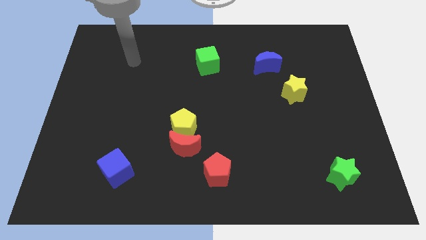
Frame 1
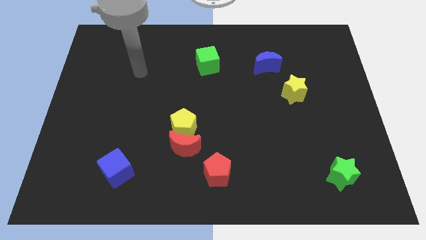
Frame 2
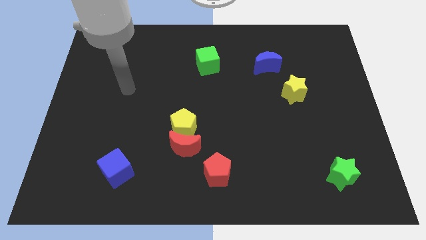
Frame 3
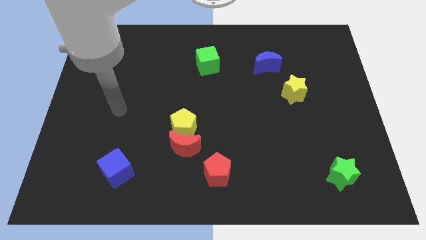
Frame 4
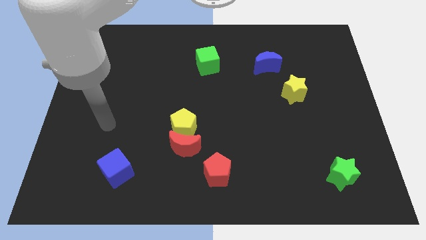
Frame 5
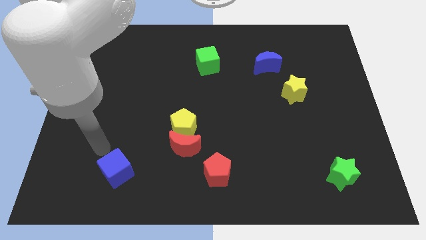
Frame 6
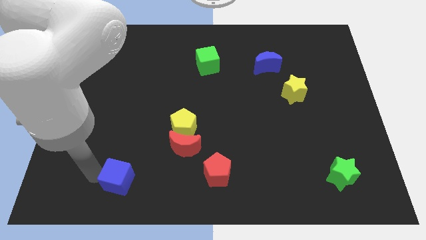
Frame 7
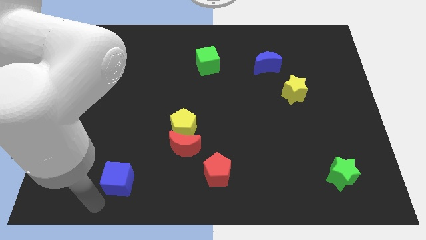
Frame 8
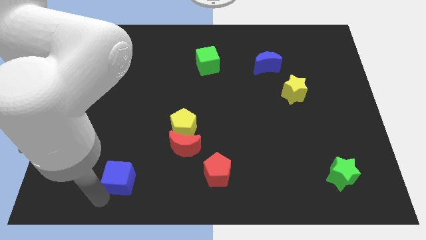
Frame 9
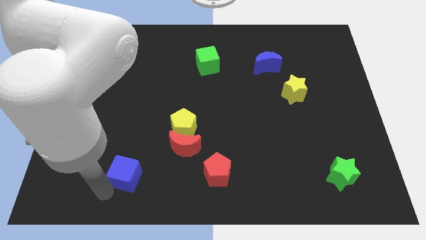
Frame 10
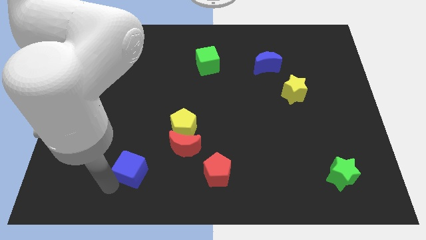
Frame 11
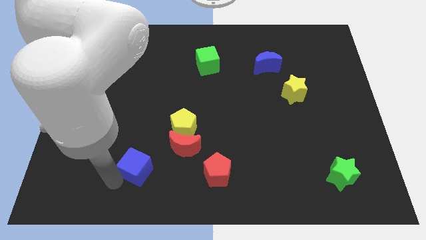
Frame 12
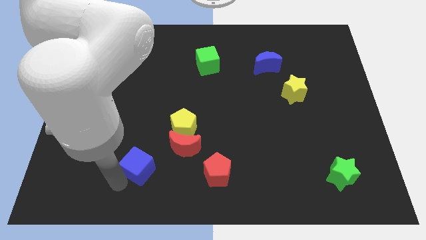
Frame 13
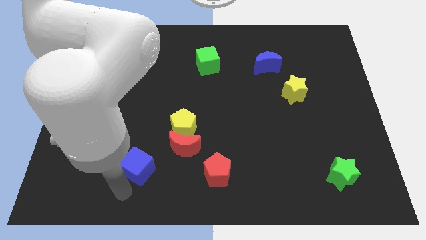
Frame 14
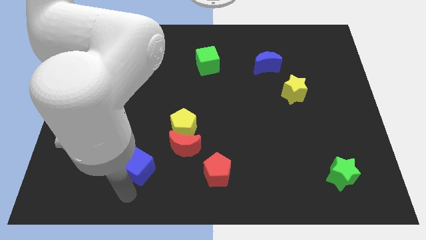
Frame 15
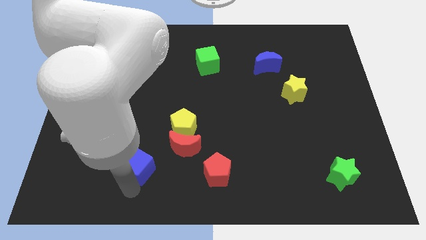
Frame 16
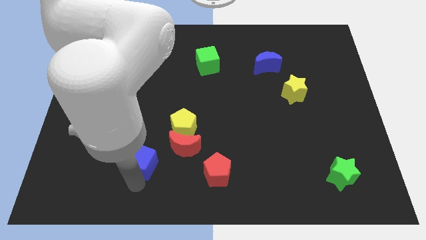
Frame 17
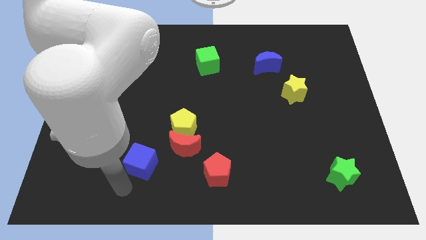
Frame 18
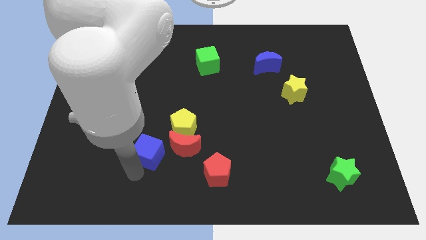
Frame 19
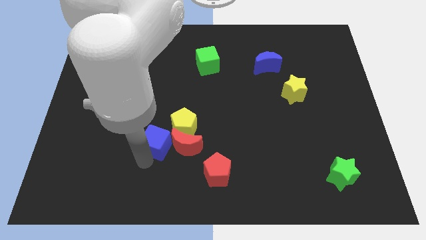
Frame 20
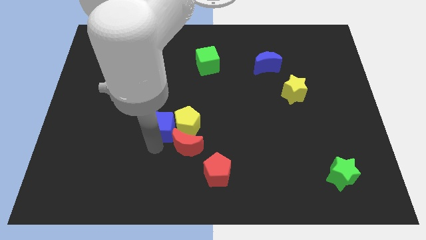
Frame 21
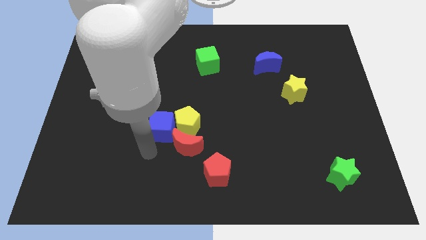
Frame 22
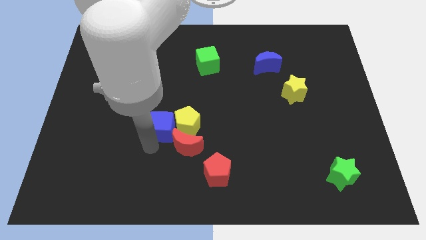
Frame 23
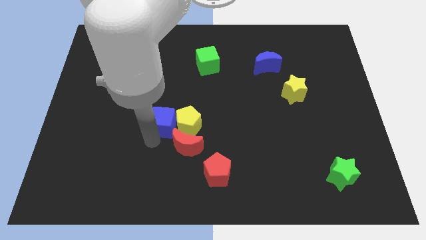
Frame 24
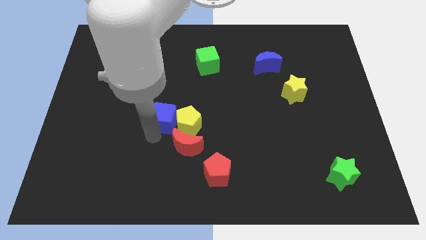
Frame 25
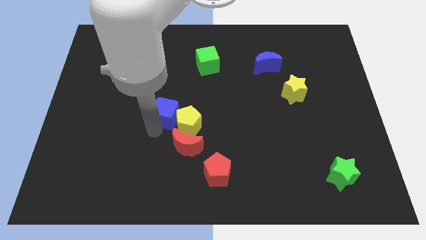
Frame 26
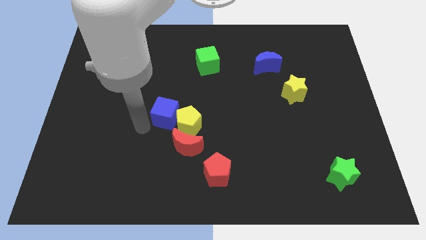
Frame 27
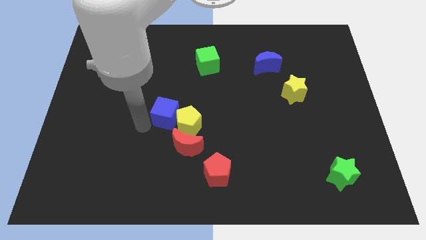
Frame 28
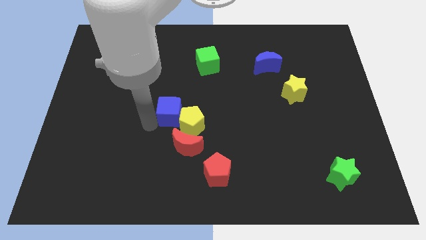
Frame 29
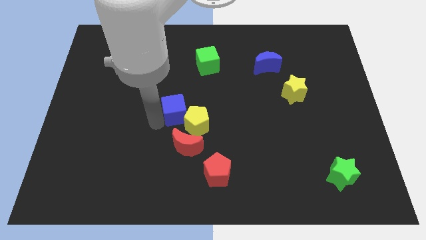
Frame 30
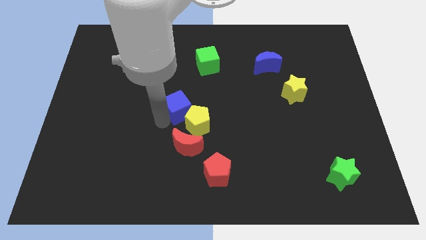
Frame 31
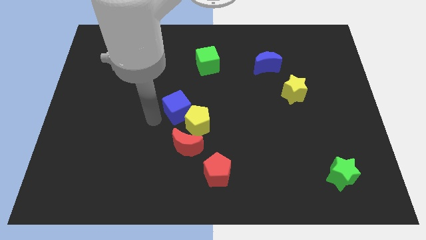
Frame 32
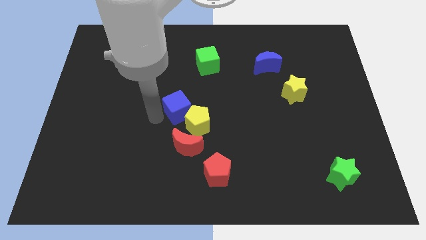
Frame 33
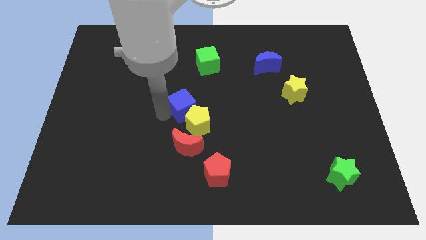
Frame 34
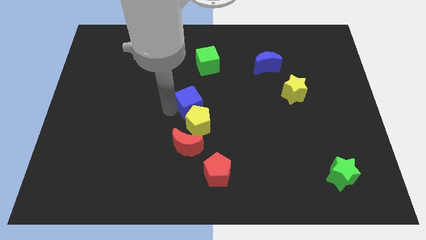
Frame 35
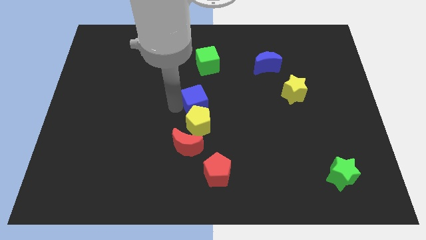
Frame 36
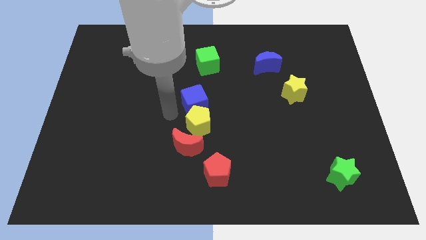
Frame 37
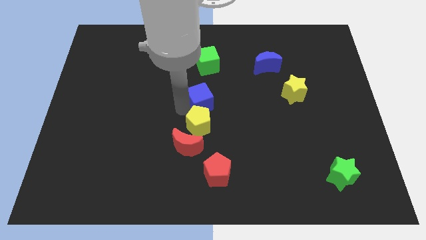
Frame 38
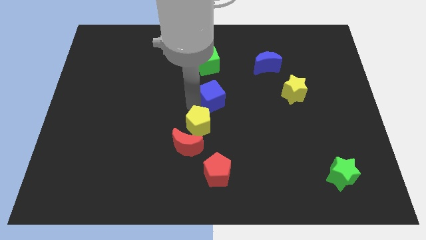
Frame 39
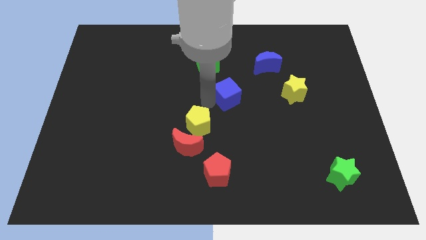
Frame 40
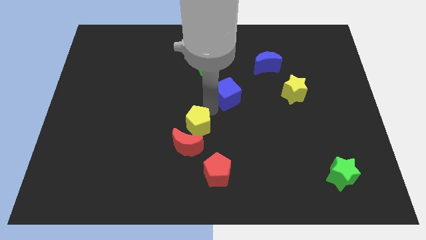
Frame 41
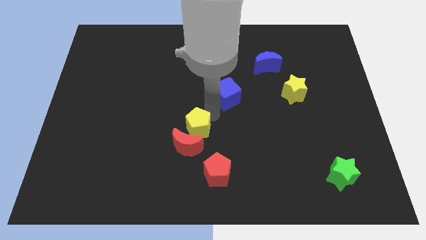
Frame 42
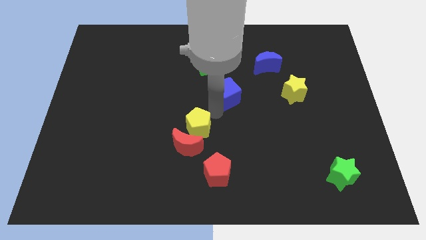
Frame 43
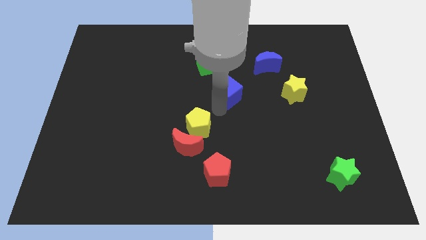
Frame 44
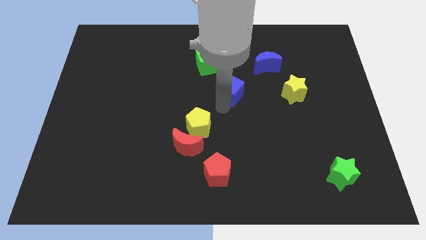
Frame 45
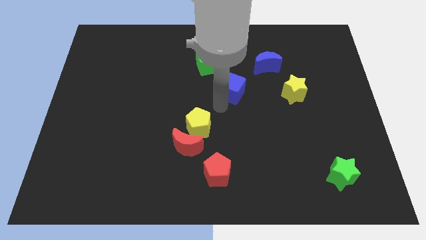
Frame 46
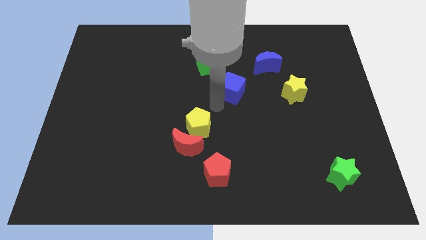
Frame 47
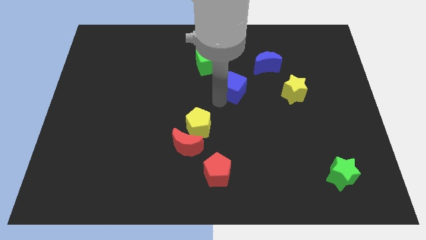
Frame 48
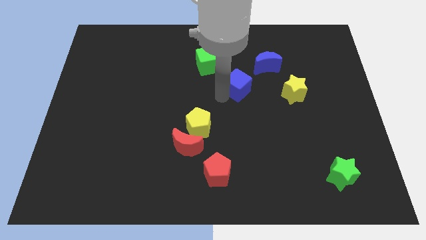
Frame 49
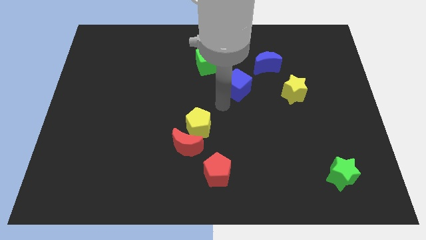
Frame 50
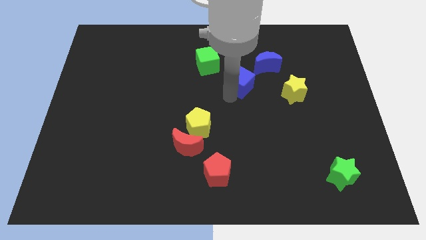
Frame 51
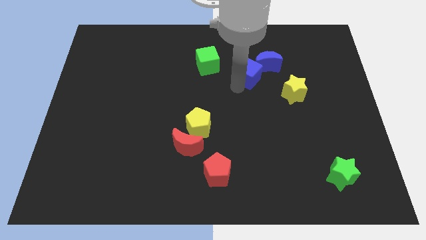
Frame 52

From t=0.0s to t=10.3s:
push the blue cube next to the blue moon

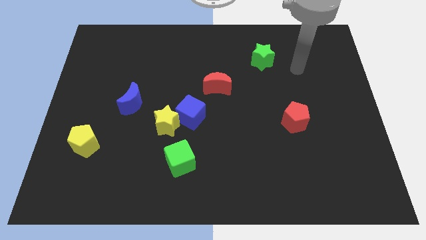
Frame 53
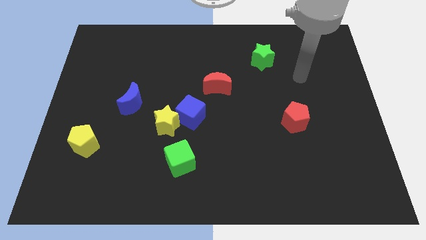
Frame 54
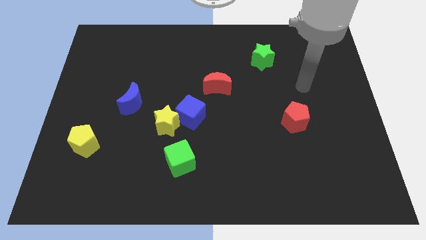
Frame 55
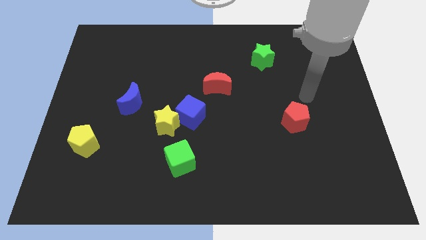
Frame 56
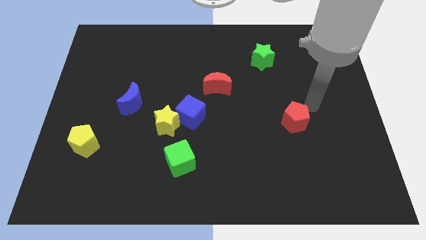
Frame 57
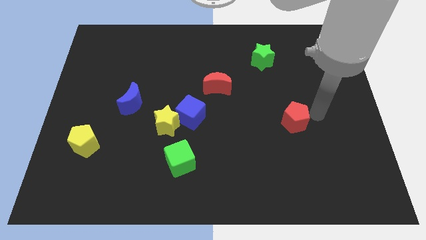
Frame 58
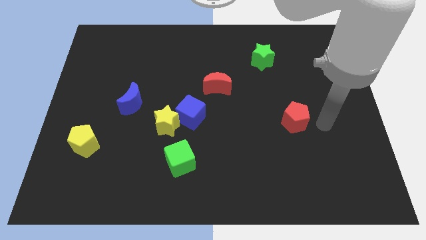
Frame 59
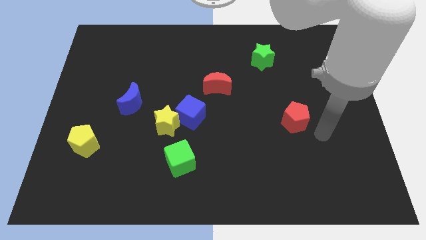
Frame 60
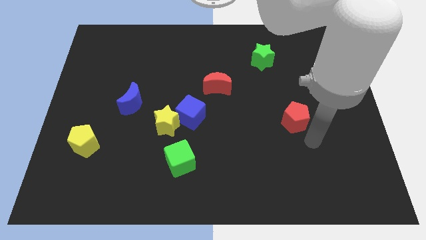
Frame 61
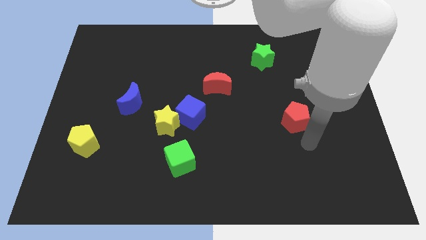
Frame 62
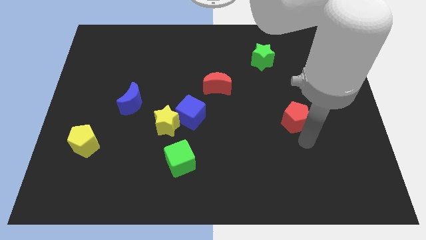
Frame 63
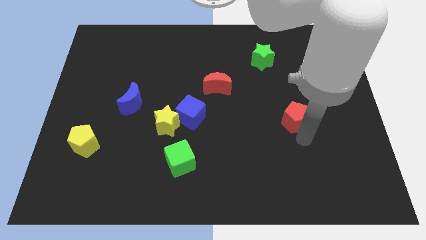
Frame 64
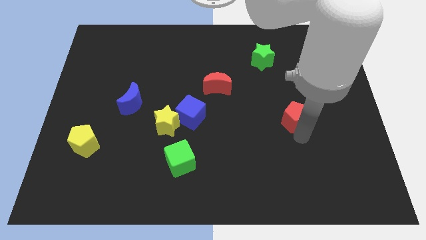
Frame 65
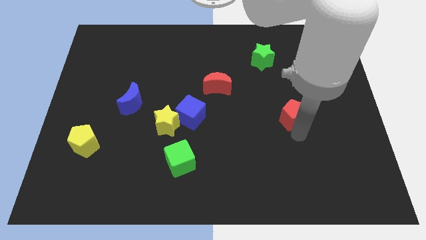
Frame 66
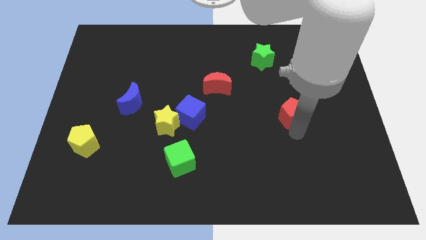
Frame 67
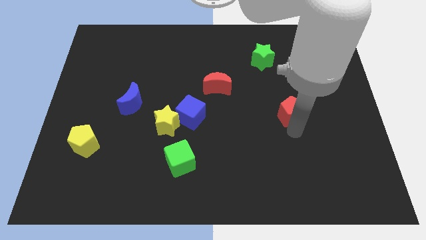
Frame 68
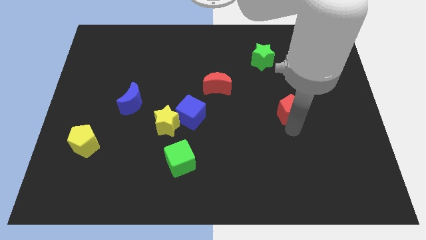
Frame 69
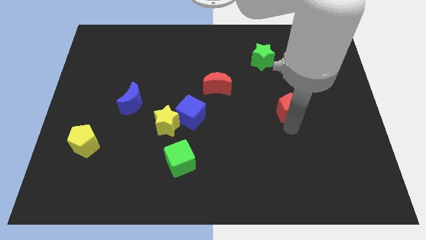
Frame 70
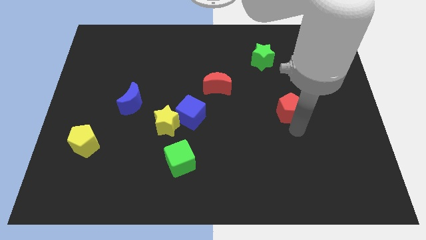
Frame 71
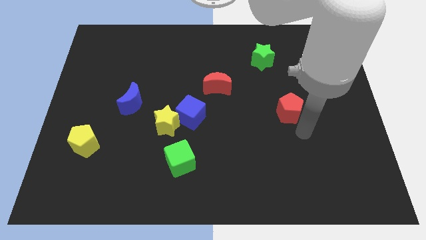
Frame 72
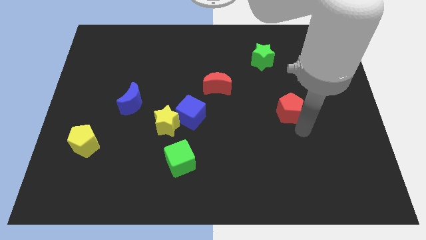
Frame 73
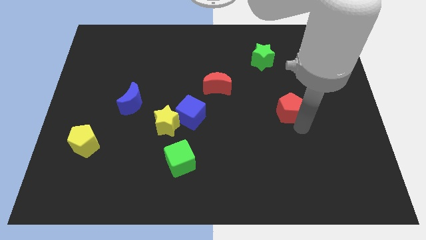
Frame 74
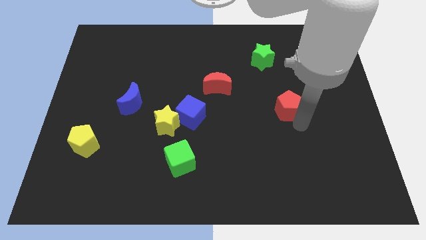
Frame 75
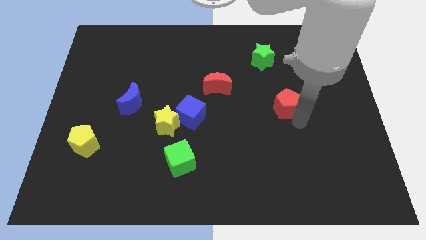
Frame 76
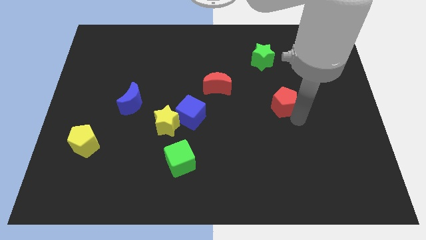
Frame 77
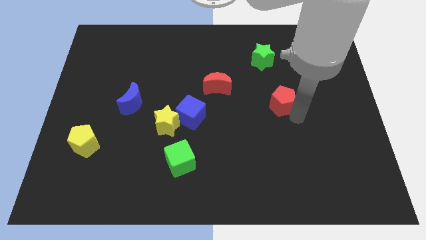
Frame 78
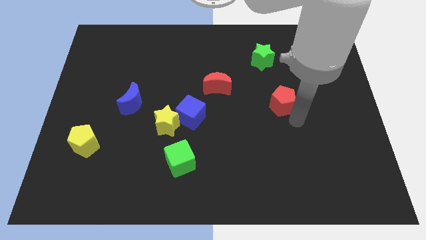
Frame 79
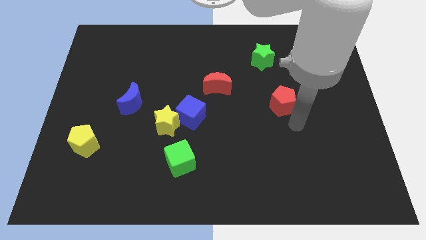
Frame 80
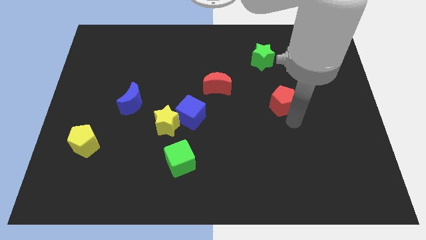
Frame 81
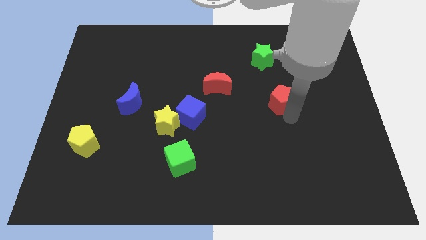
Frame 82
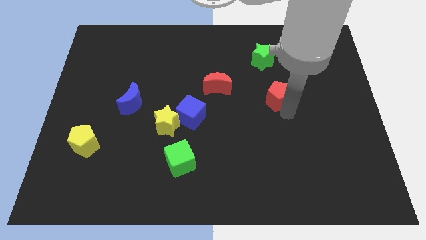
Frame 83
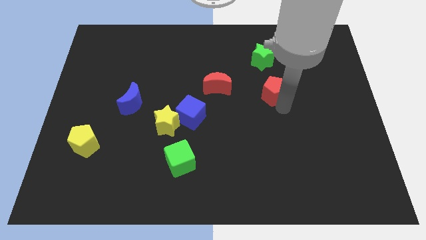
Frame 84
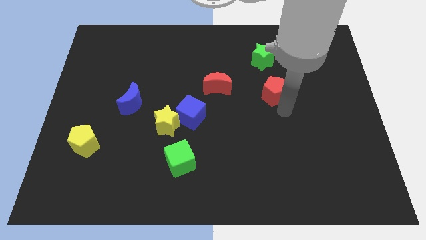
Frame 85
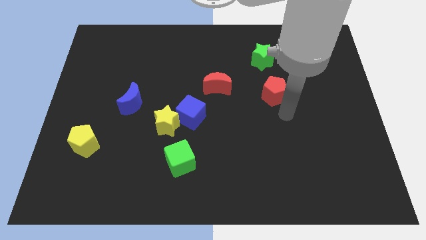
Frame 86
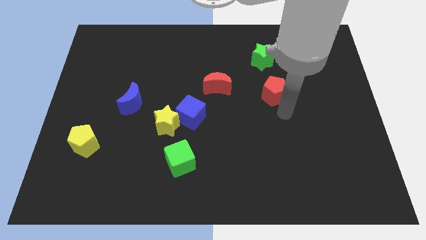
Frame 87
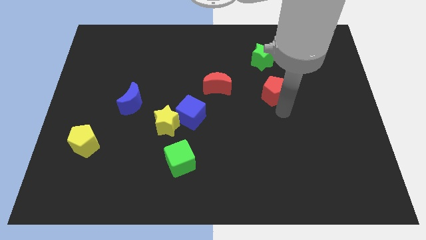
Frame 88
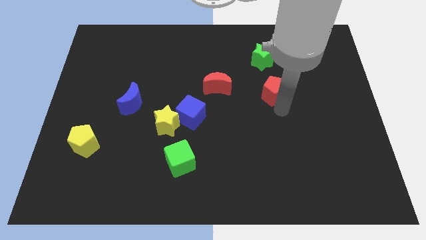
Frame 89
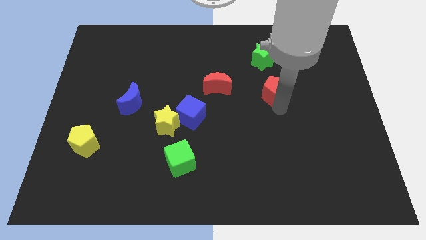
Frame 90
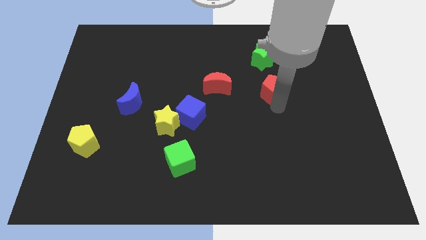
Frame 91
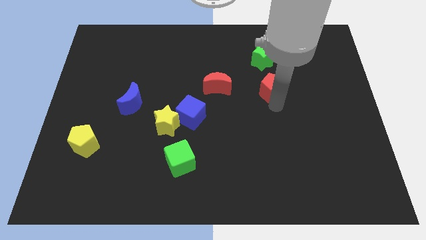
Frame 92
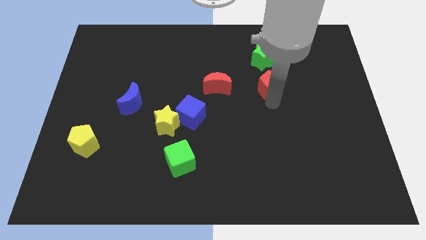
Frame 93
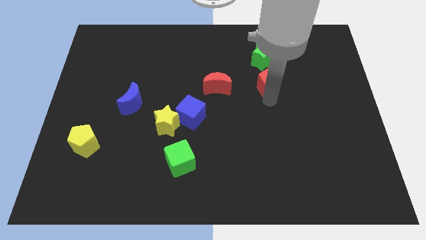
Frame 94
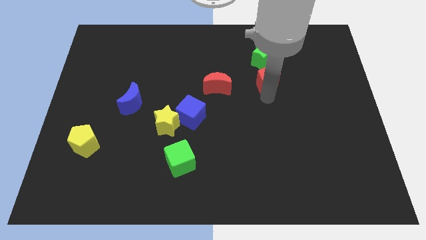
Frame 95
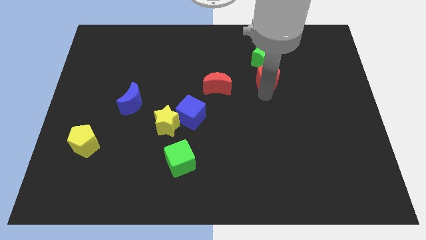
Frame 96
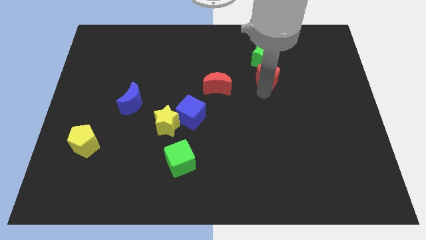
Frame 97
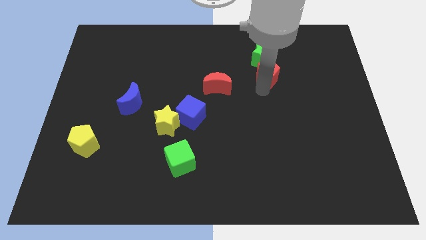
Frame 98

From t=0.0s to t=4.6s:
move the red pentagon close to the green star
